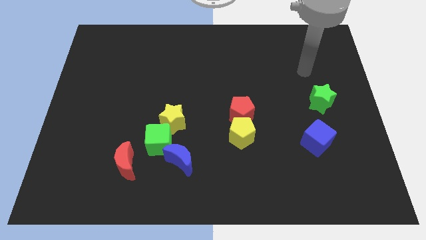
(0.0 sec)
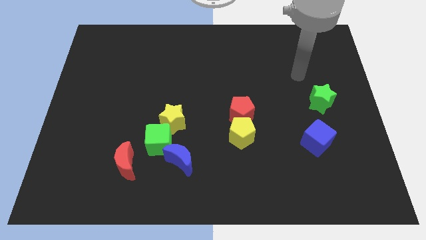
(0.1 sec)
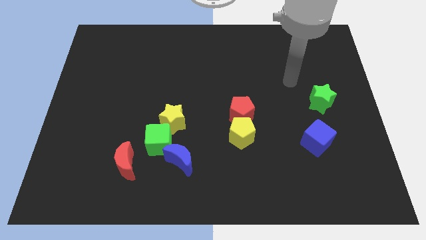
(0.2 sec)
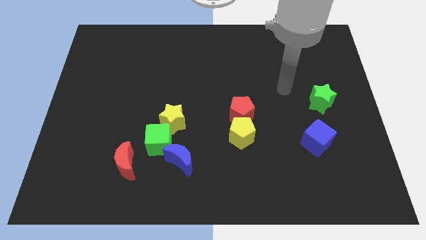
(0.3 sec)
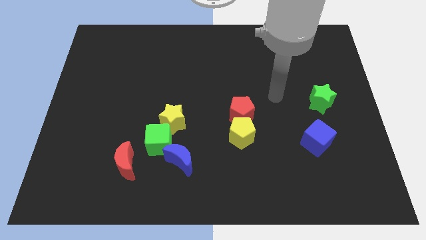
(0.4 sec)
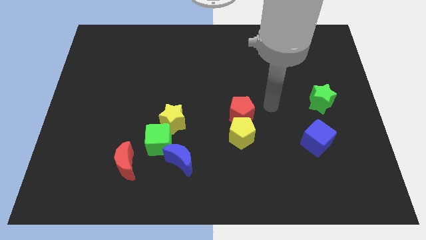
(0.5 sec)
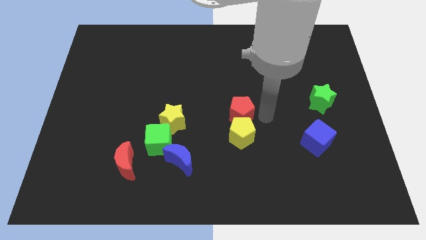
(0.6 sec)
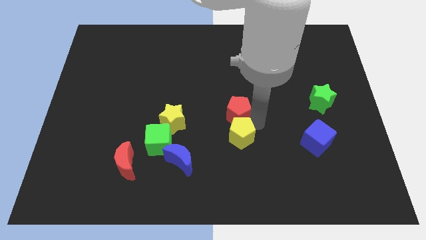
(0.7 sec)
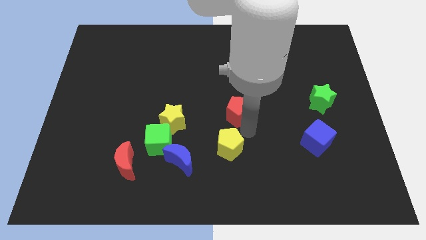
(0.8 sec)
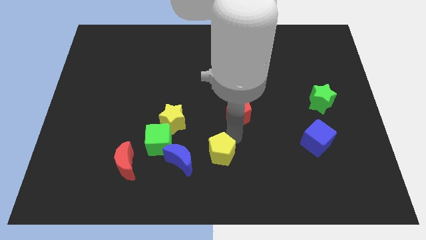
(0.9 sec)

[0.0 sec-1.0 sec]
pull the red pentagon apart from the yellow pentagon

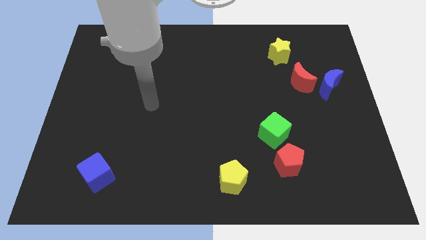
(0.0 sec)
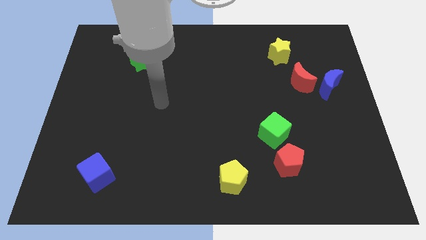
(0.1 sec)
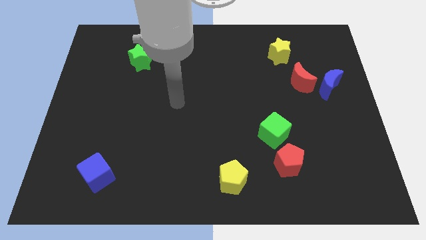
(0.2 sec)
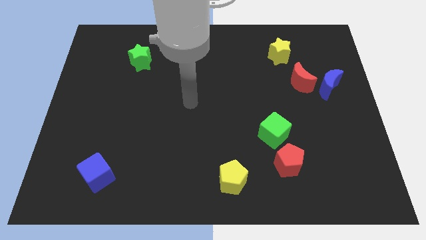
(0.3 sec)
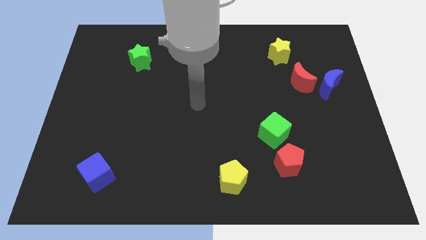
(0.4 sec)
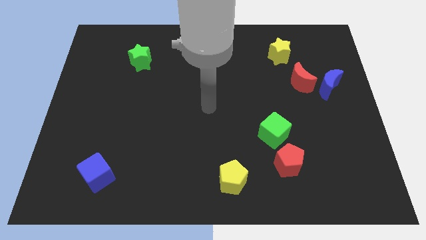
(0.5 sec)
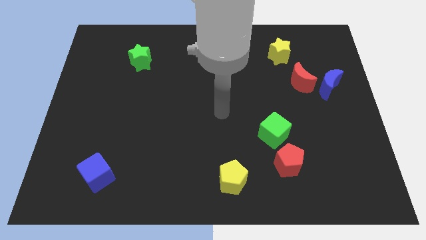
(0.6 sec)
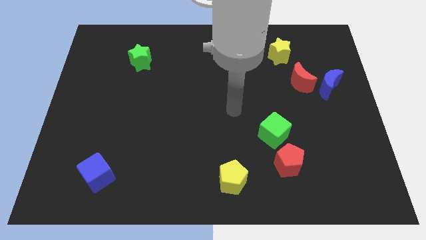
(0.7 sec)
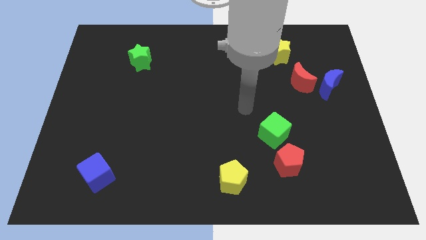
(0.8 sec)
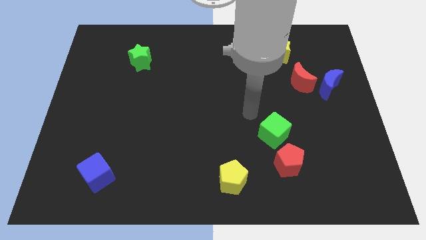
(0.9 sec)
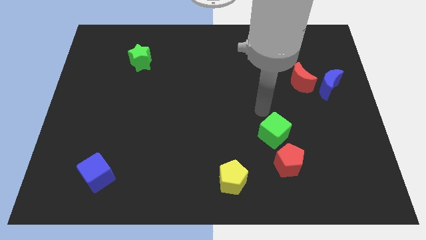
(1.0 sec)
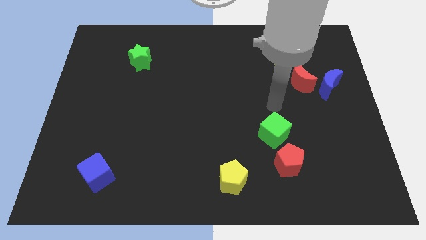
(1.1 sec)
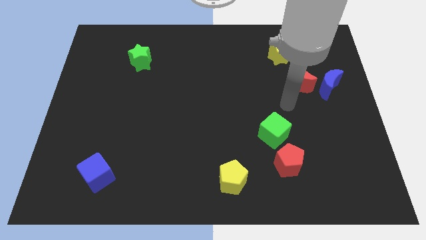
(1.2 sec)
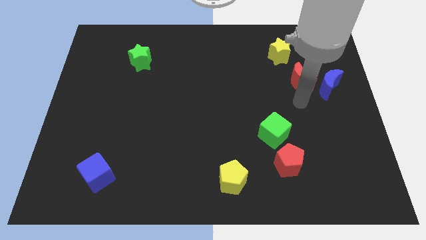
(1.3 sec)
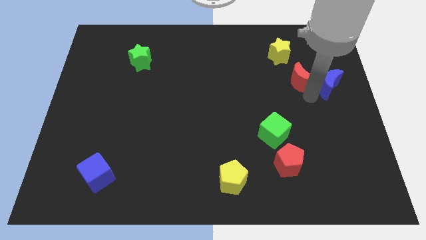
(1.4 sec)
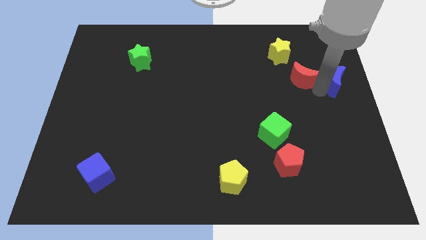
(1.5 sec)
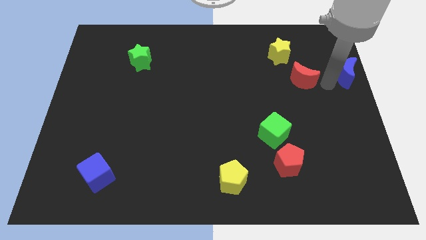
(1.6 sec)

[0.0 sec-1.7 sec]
move the red moon away from the blue moon

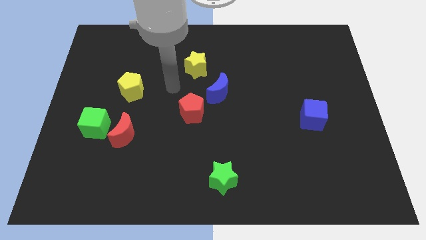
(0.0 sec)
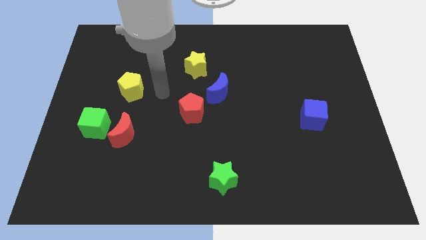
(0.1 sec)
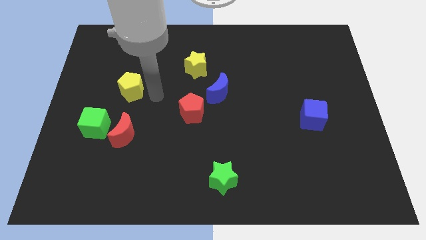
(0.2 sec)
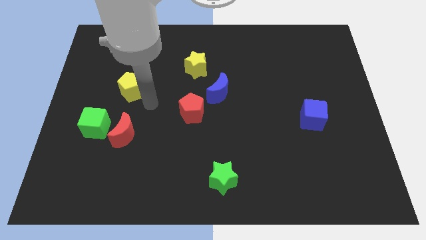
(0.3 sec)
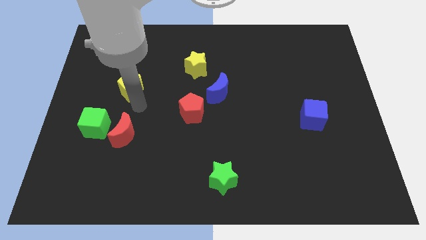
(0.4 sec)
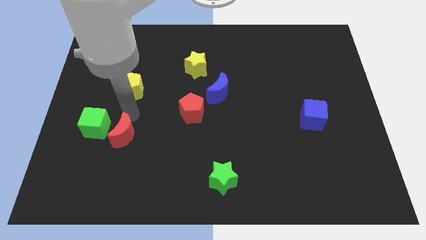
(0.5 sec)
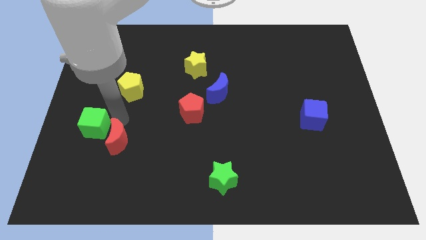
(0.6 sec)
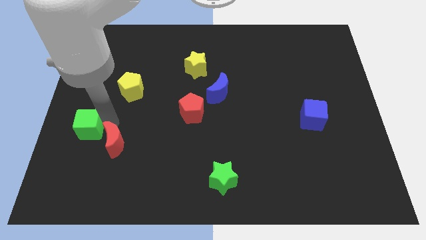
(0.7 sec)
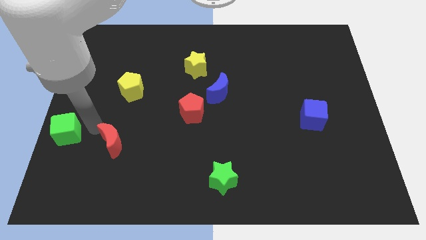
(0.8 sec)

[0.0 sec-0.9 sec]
separate the red moon from the green cube

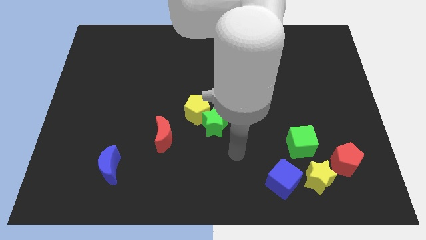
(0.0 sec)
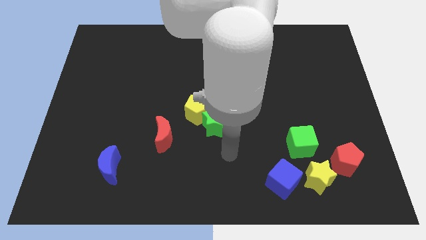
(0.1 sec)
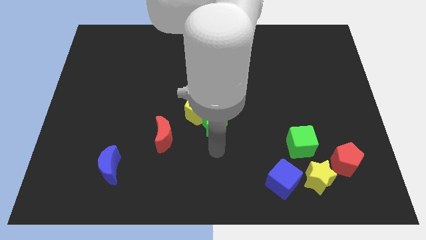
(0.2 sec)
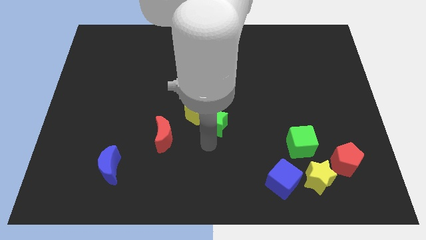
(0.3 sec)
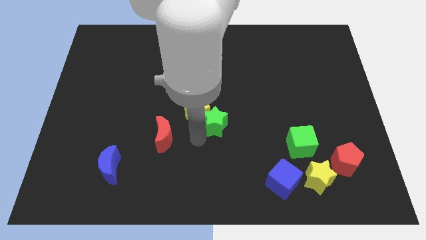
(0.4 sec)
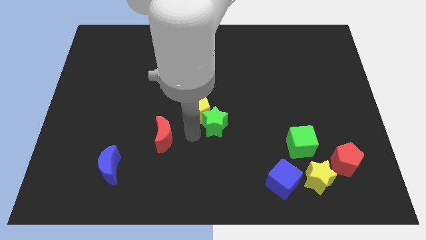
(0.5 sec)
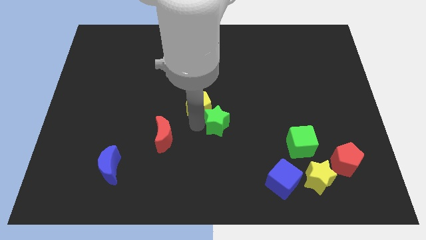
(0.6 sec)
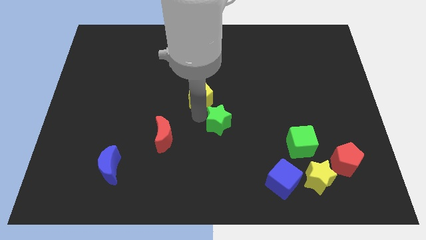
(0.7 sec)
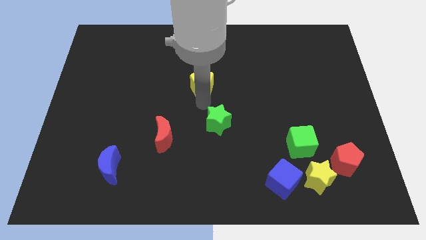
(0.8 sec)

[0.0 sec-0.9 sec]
separate the green star from the yellow pentagon

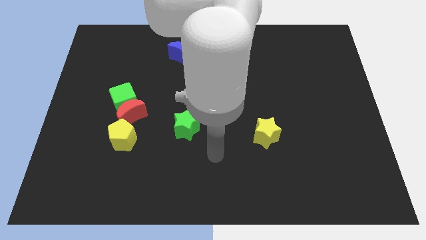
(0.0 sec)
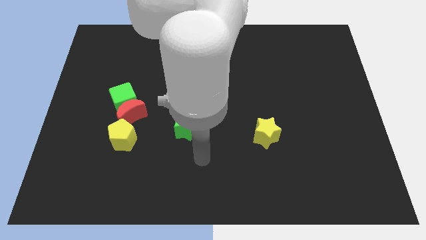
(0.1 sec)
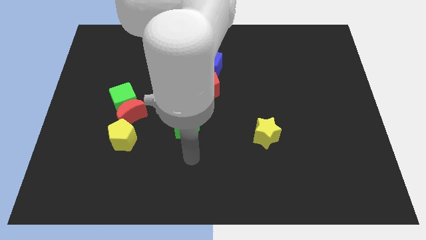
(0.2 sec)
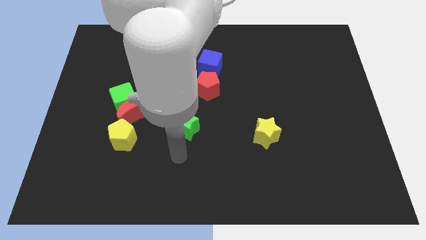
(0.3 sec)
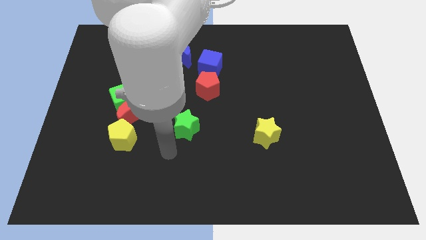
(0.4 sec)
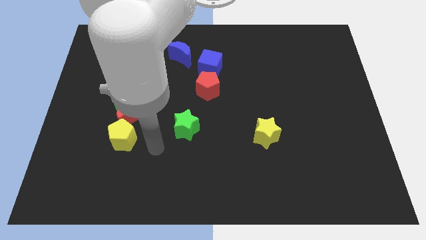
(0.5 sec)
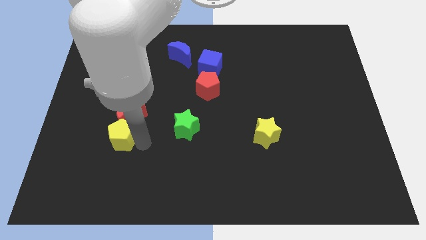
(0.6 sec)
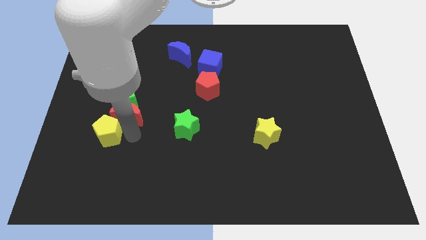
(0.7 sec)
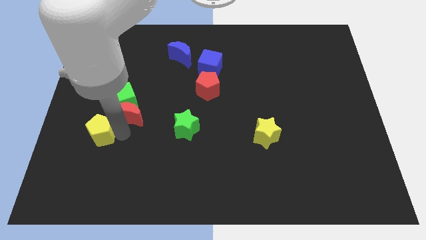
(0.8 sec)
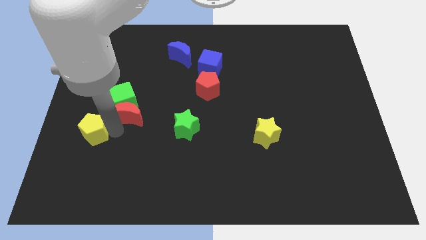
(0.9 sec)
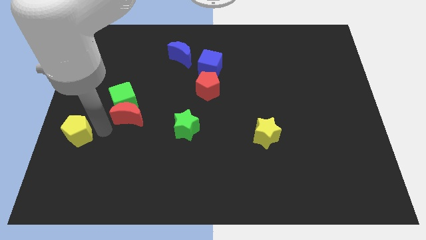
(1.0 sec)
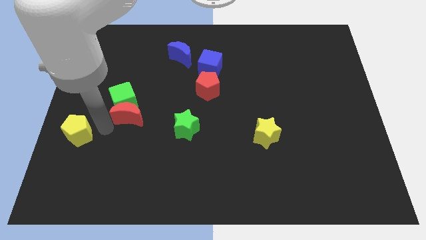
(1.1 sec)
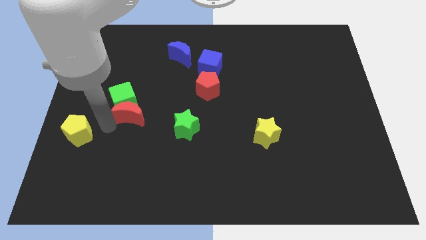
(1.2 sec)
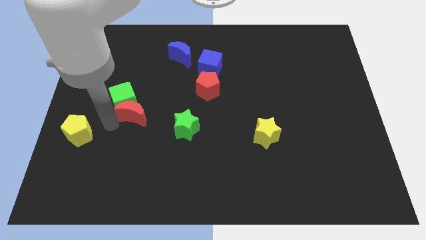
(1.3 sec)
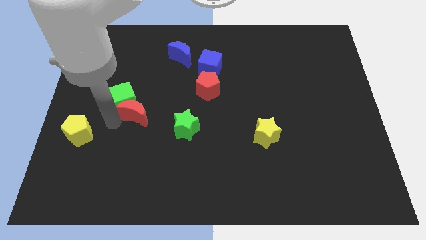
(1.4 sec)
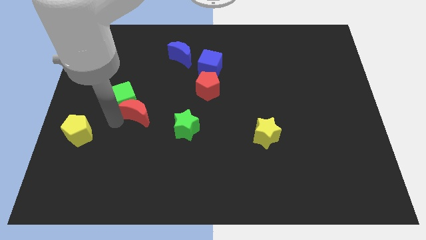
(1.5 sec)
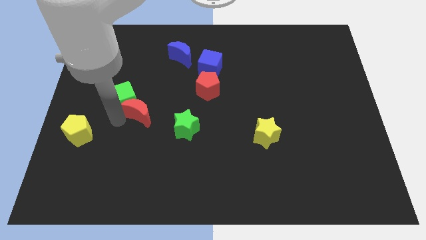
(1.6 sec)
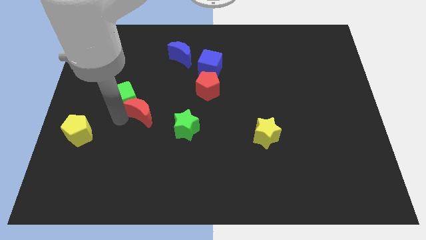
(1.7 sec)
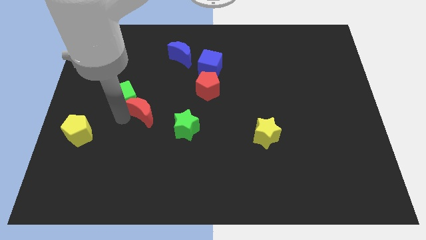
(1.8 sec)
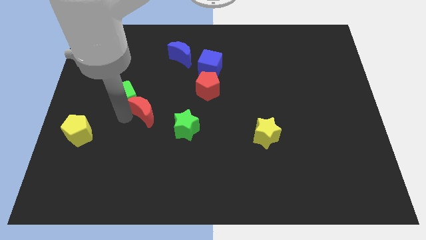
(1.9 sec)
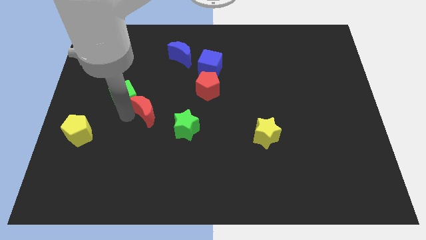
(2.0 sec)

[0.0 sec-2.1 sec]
move the red moon away from the green cube and yellow pentagon

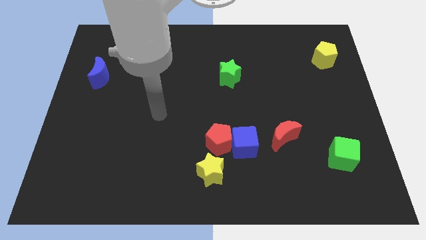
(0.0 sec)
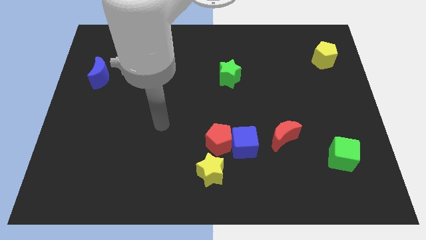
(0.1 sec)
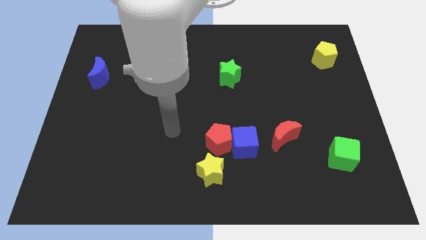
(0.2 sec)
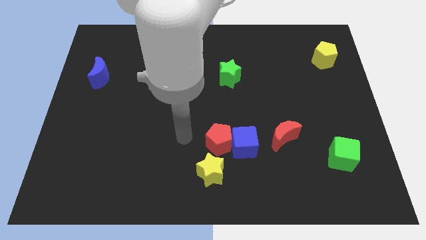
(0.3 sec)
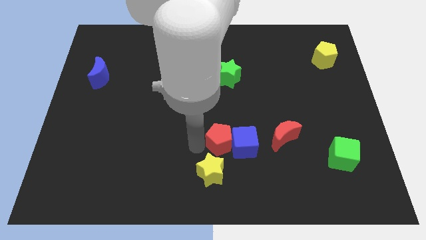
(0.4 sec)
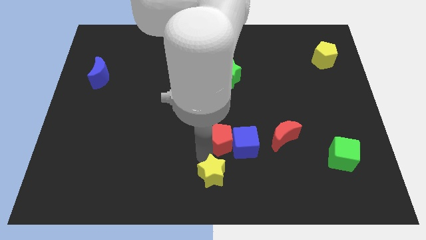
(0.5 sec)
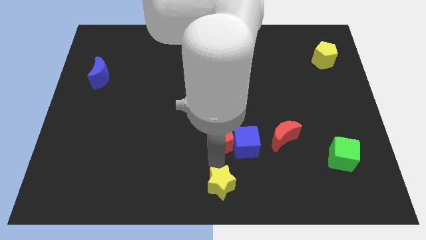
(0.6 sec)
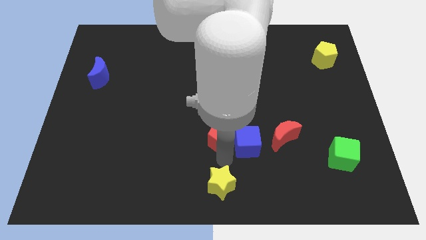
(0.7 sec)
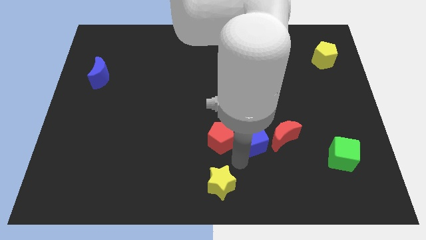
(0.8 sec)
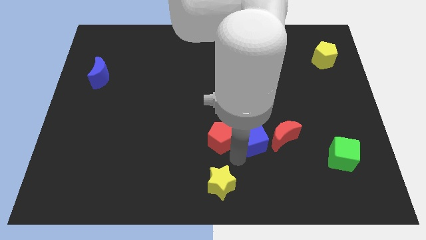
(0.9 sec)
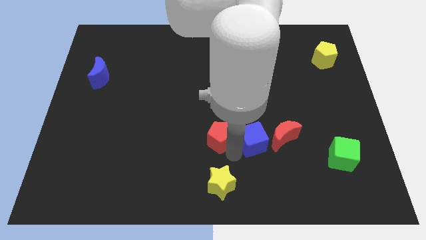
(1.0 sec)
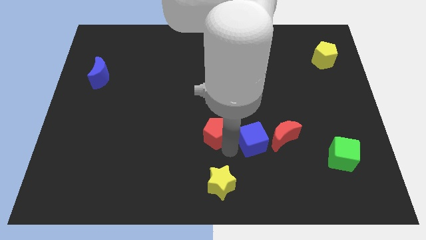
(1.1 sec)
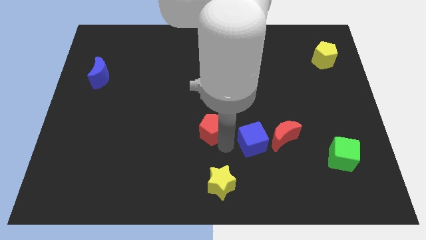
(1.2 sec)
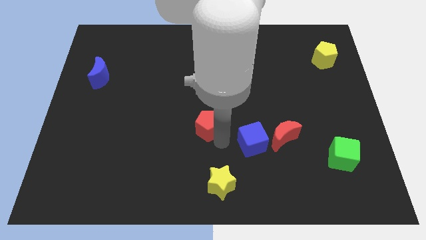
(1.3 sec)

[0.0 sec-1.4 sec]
pull the red pentagon apart from the blue cube and yellow star

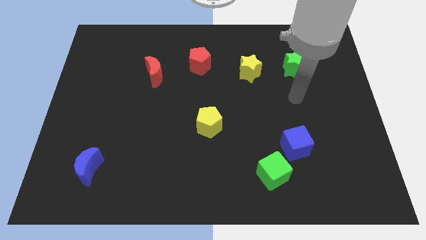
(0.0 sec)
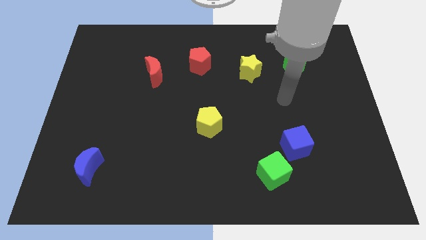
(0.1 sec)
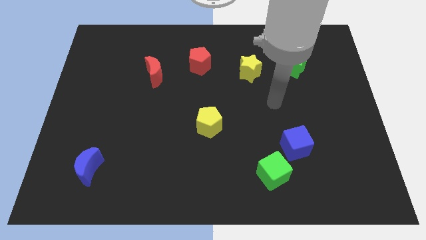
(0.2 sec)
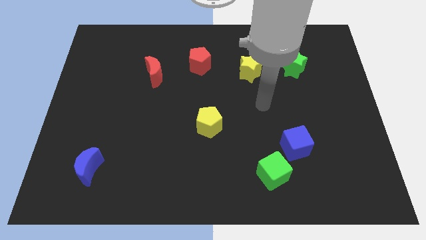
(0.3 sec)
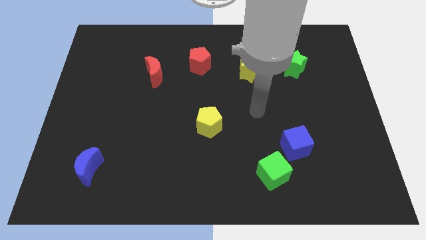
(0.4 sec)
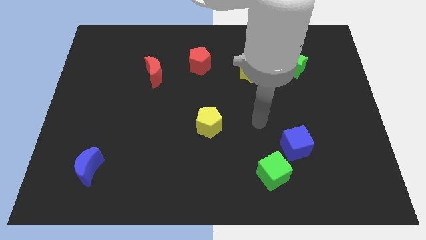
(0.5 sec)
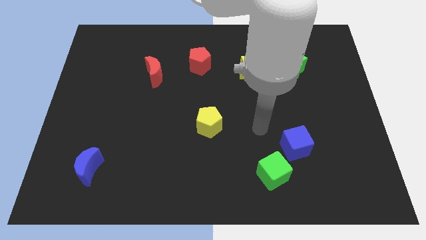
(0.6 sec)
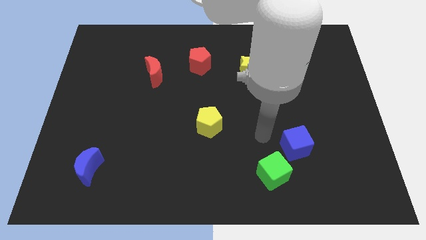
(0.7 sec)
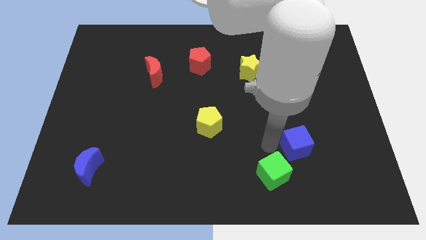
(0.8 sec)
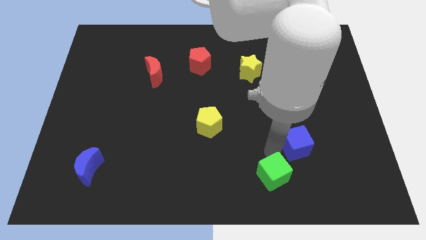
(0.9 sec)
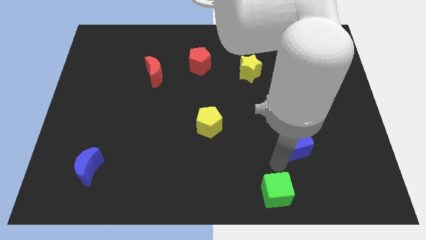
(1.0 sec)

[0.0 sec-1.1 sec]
move the blue cube away from the green cube
